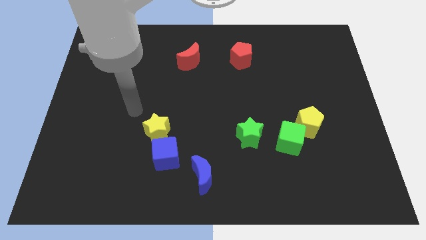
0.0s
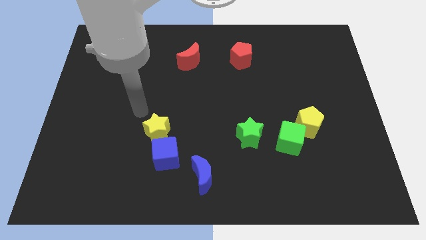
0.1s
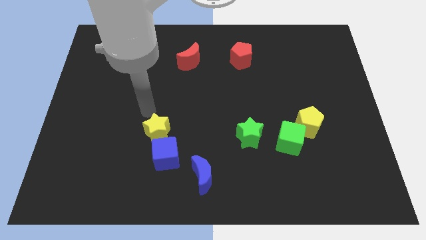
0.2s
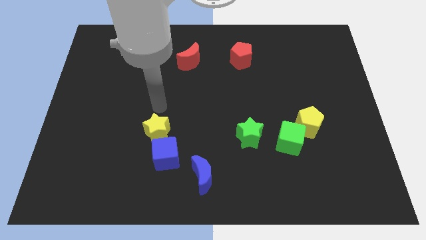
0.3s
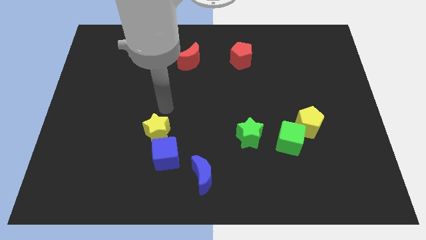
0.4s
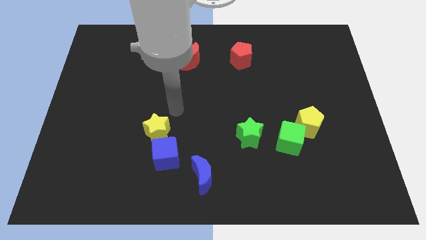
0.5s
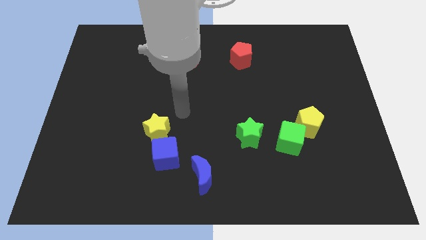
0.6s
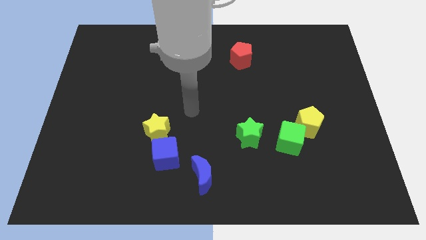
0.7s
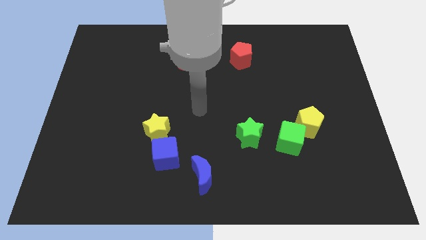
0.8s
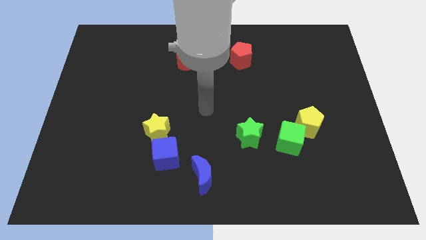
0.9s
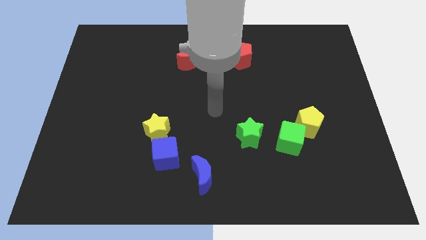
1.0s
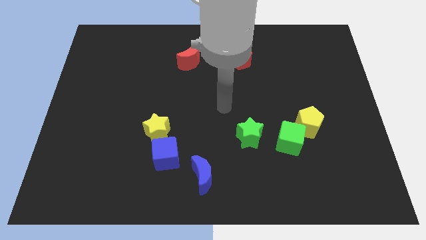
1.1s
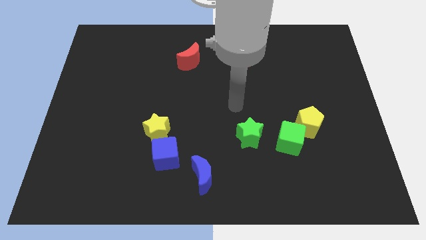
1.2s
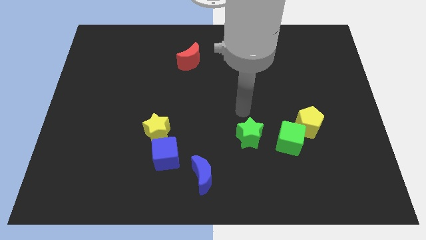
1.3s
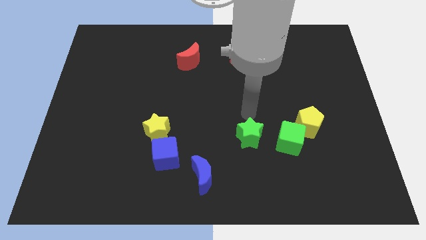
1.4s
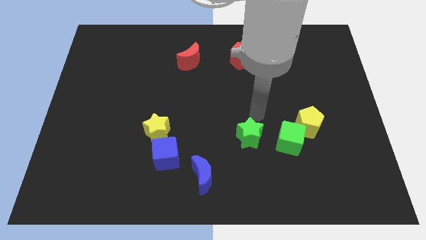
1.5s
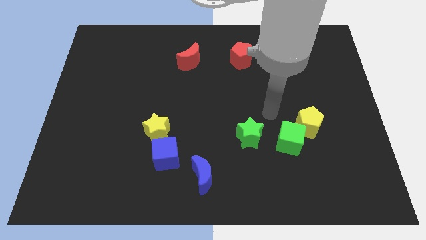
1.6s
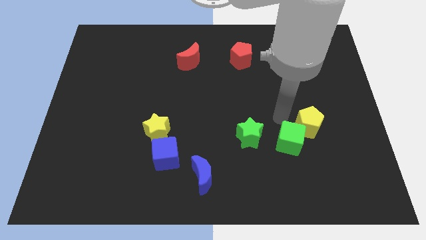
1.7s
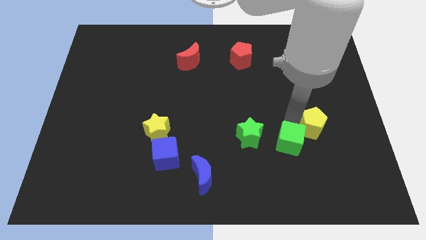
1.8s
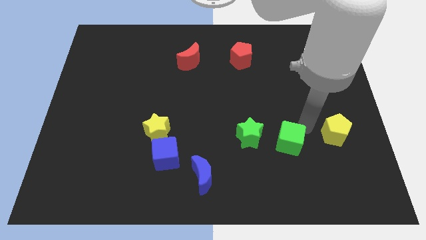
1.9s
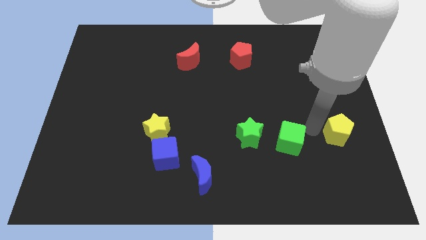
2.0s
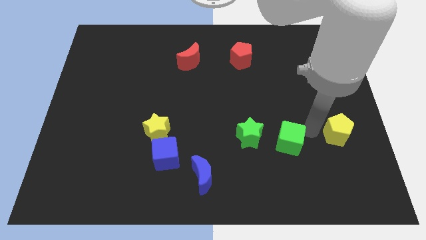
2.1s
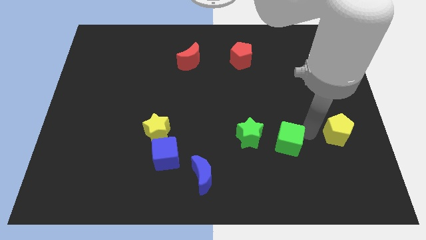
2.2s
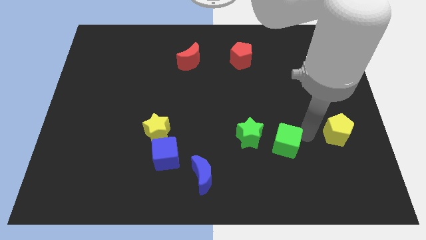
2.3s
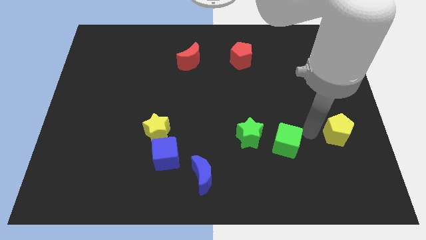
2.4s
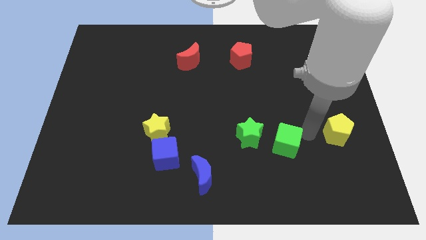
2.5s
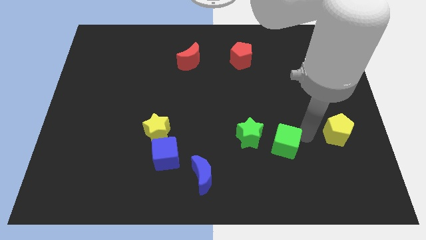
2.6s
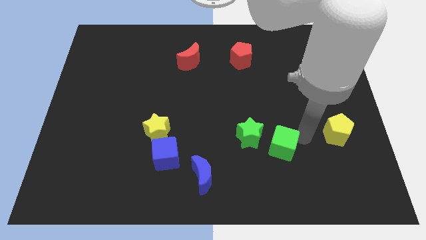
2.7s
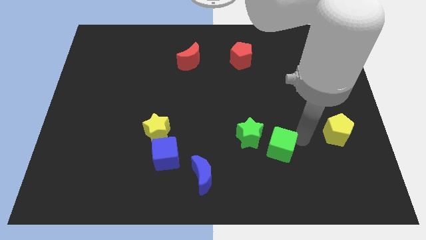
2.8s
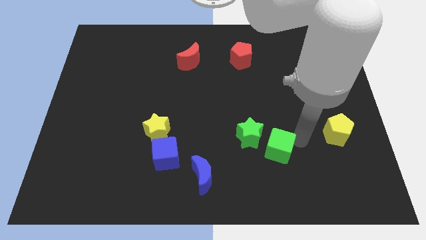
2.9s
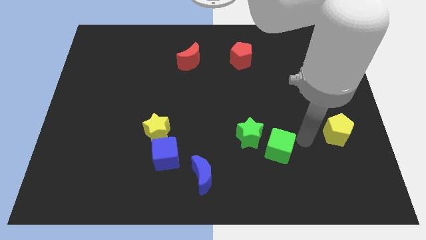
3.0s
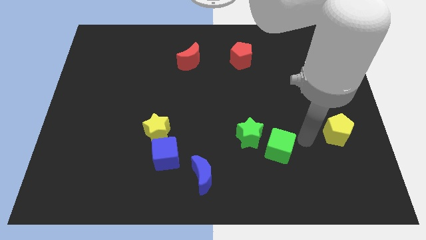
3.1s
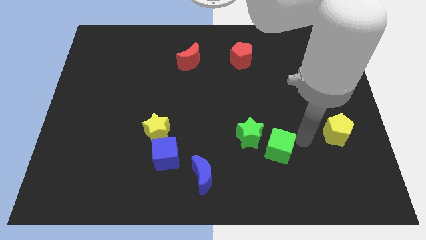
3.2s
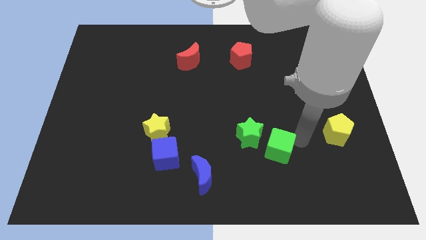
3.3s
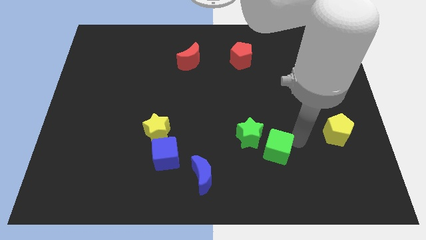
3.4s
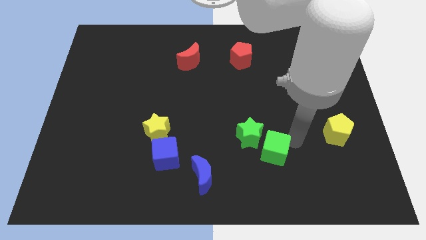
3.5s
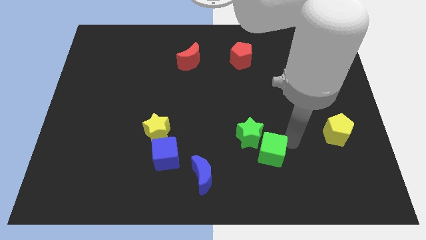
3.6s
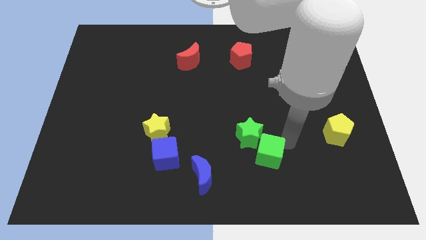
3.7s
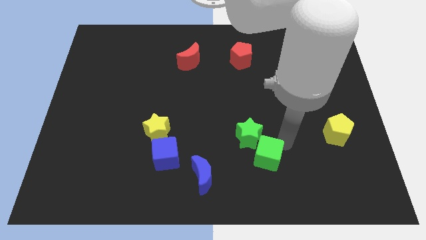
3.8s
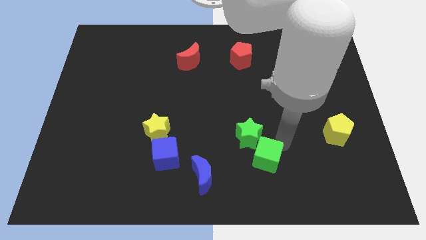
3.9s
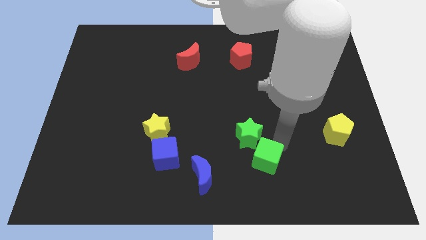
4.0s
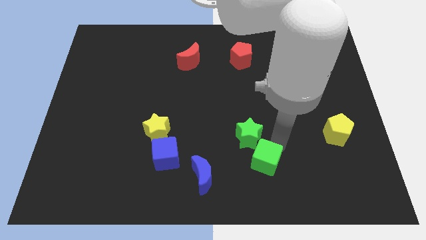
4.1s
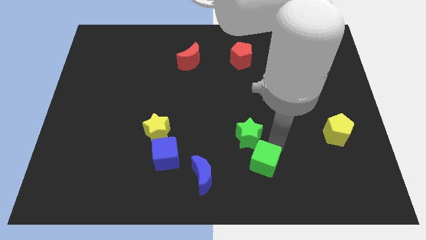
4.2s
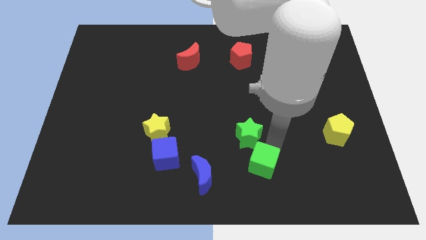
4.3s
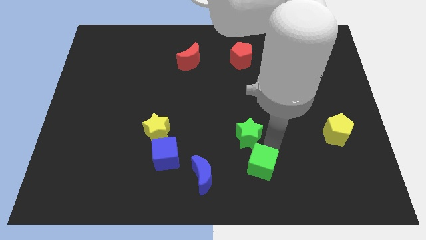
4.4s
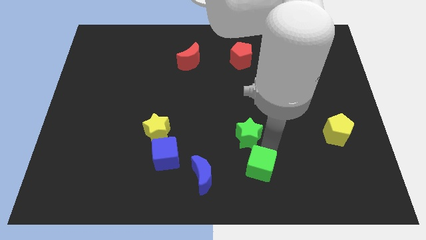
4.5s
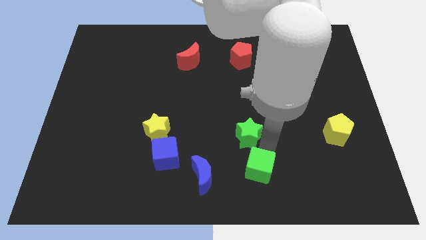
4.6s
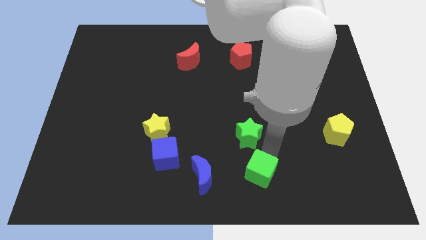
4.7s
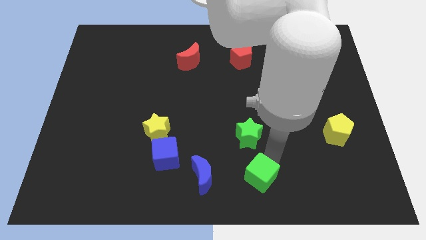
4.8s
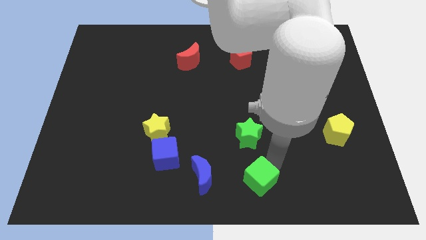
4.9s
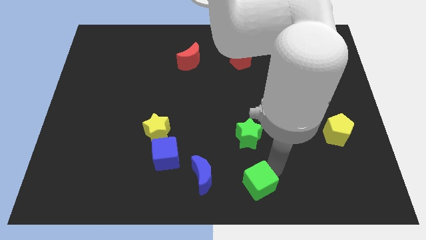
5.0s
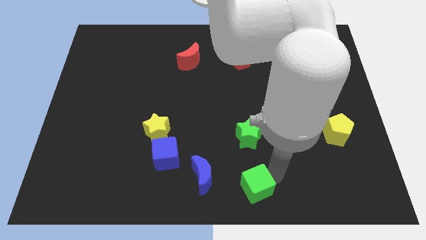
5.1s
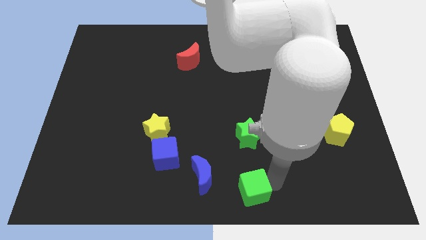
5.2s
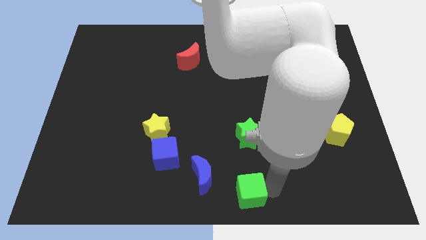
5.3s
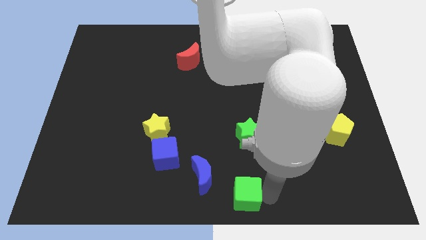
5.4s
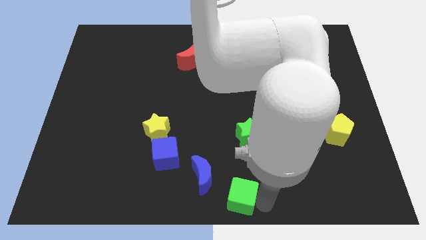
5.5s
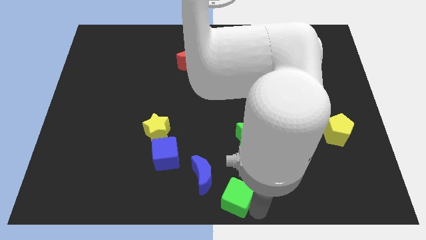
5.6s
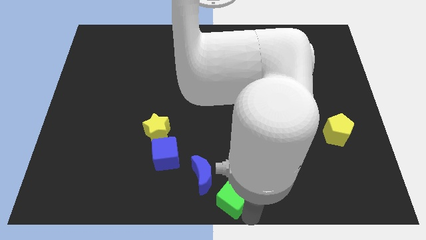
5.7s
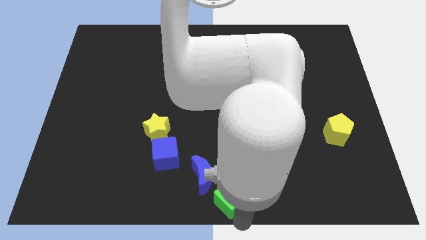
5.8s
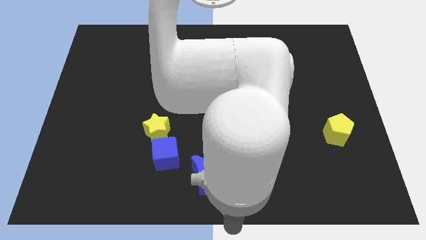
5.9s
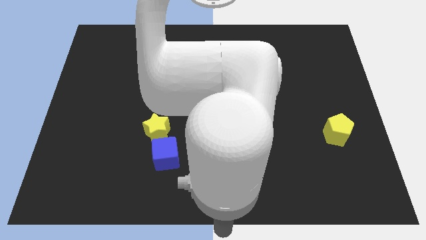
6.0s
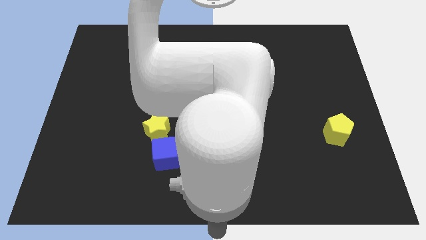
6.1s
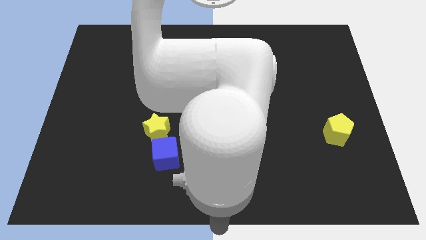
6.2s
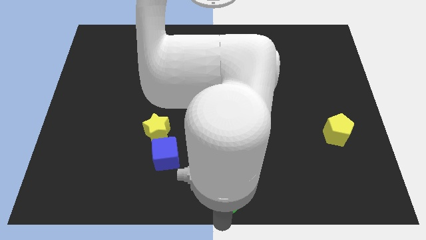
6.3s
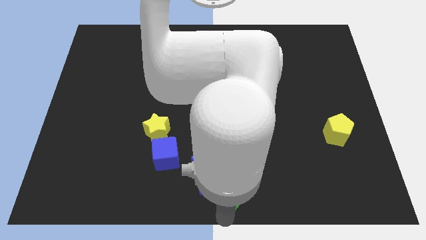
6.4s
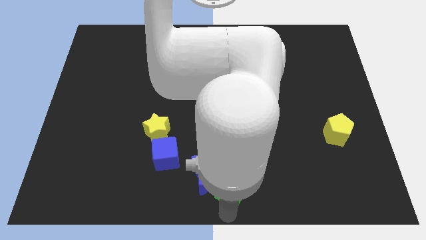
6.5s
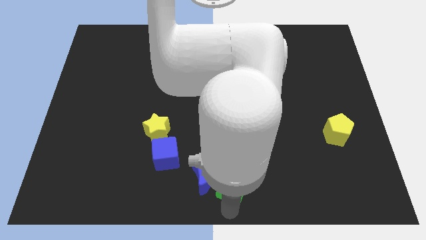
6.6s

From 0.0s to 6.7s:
move the green cube to the left slightly

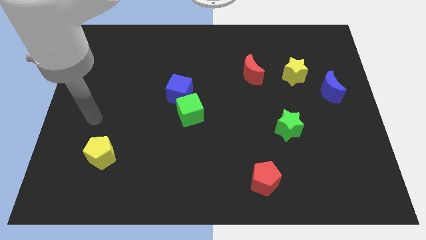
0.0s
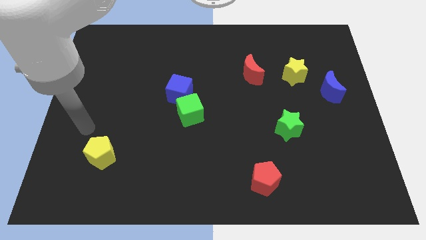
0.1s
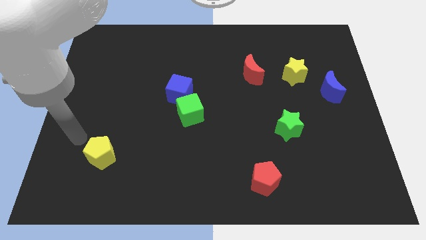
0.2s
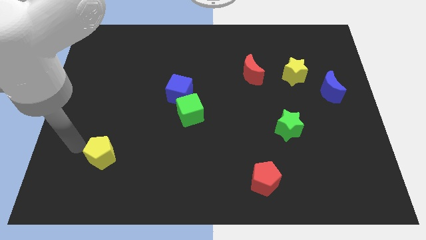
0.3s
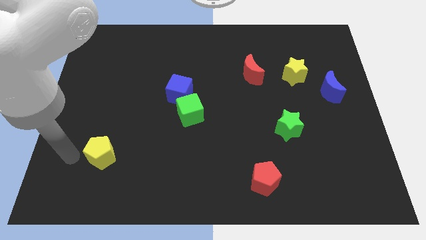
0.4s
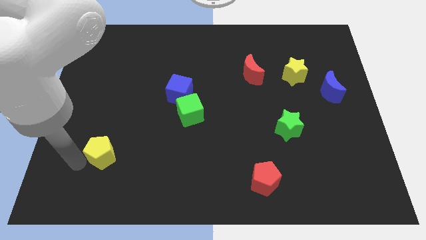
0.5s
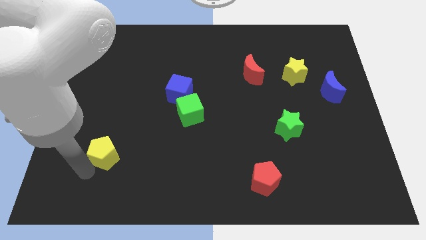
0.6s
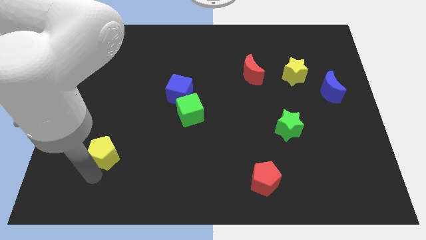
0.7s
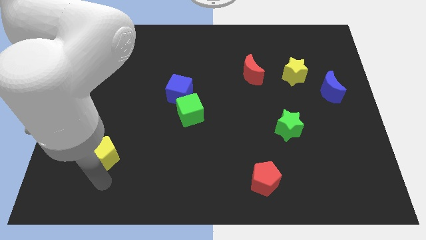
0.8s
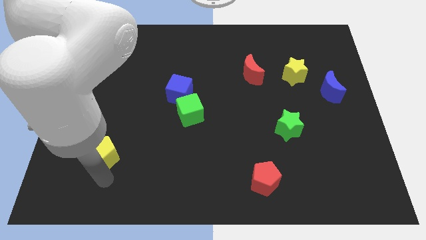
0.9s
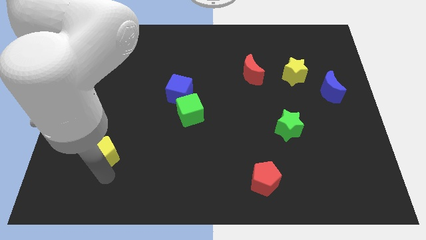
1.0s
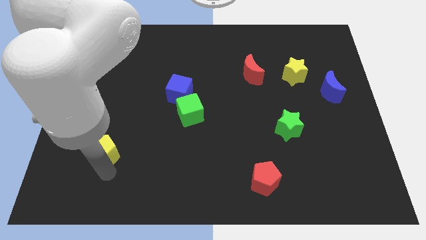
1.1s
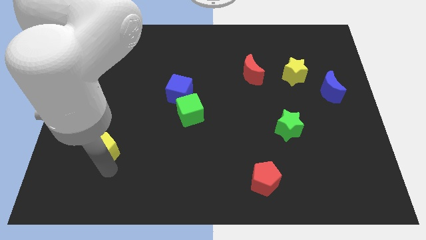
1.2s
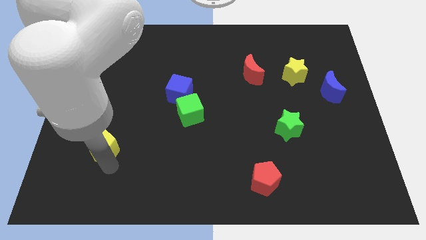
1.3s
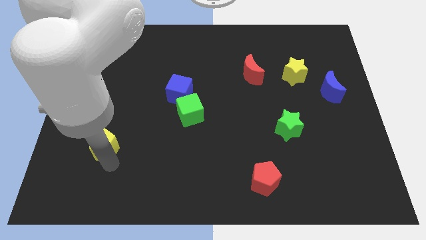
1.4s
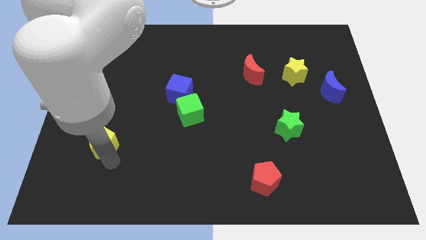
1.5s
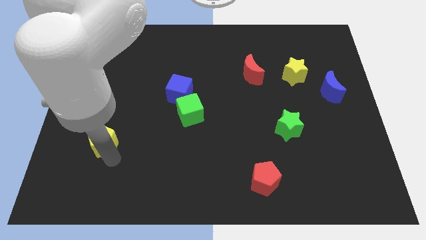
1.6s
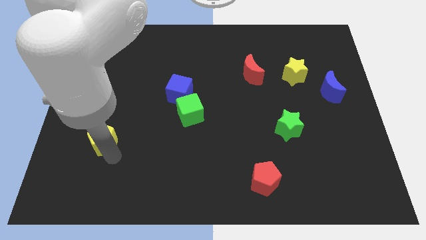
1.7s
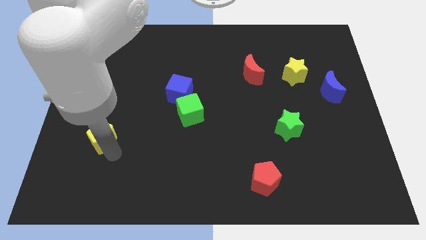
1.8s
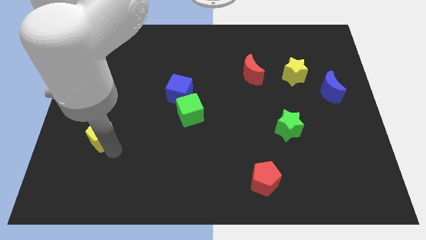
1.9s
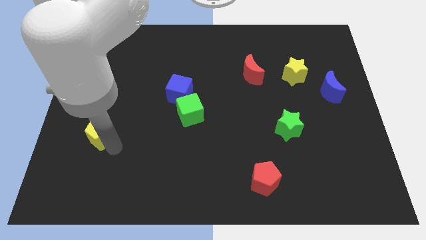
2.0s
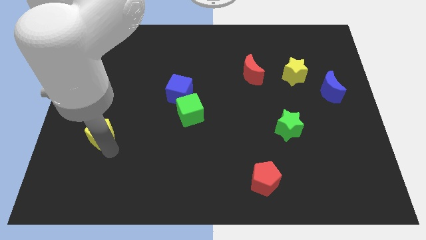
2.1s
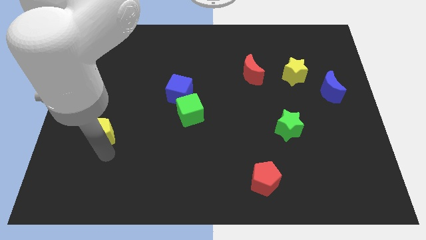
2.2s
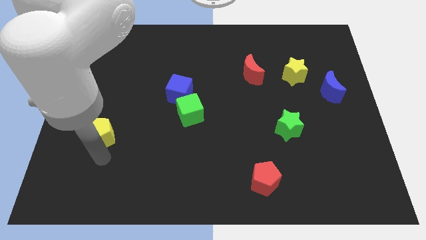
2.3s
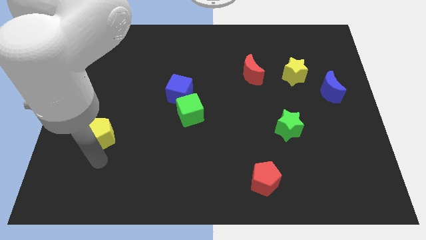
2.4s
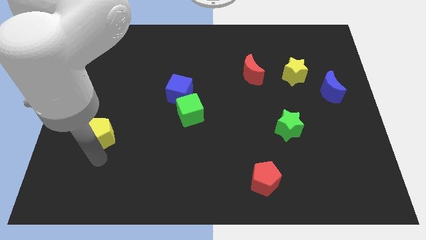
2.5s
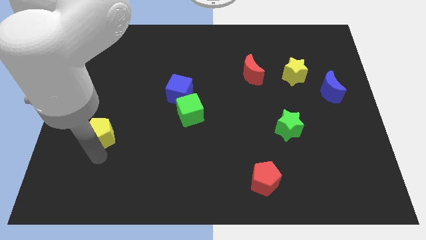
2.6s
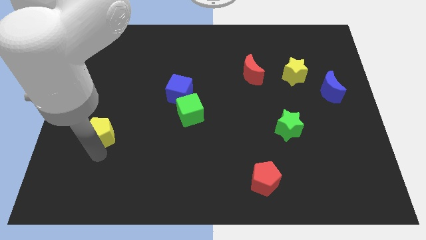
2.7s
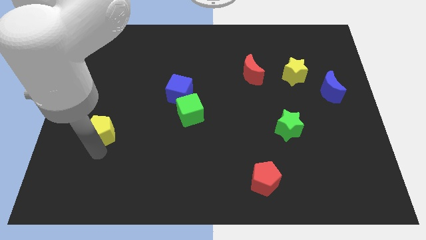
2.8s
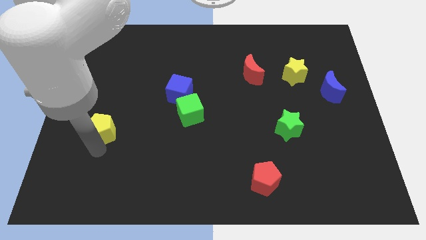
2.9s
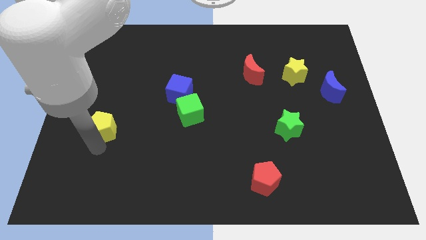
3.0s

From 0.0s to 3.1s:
move the yellow pentagon up a little
